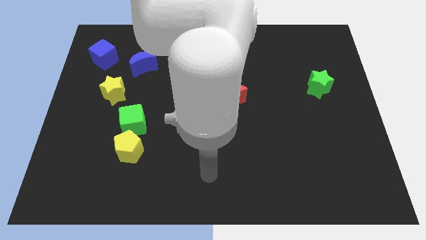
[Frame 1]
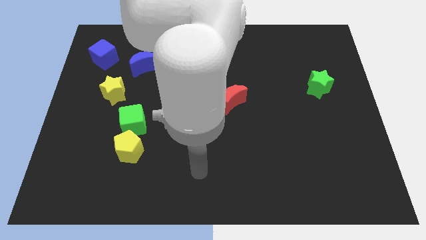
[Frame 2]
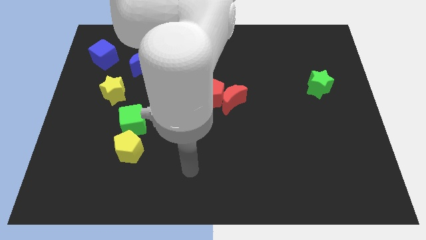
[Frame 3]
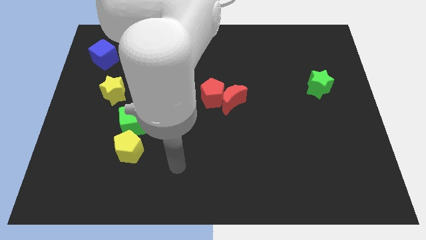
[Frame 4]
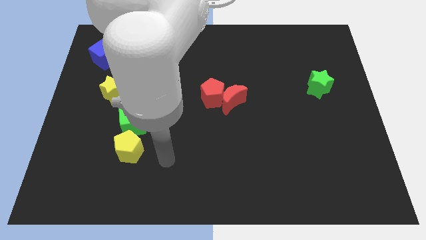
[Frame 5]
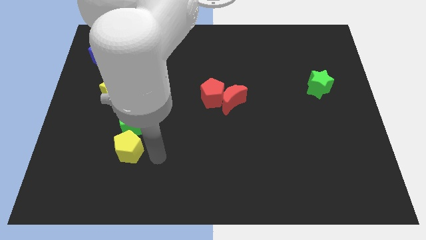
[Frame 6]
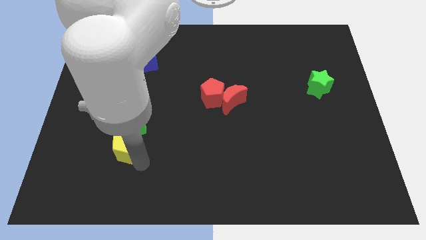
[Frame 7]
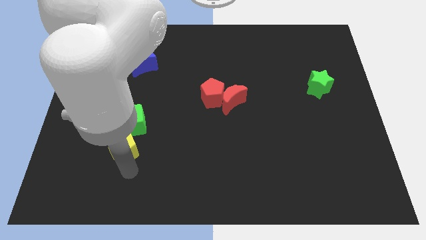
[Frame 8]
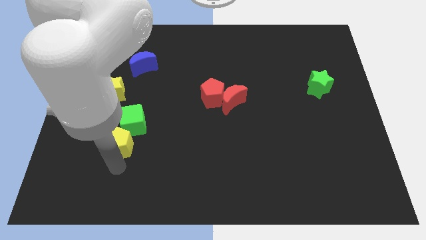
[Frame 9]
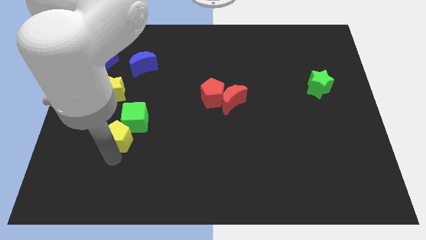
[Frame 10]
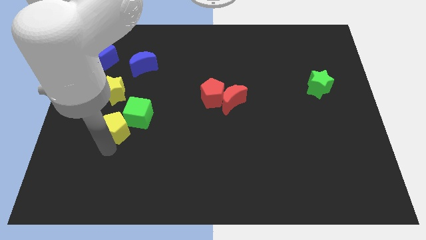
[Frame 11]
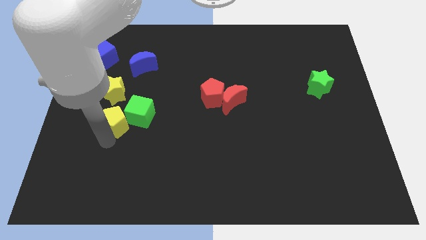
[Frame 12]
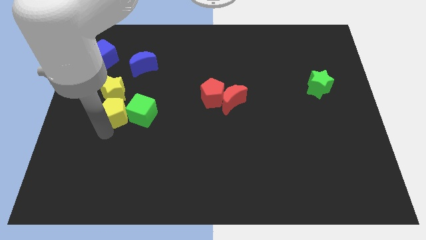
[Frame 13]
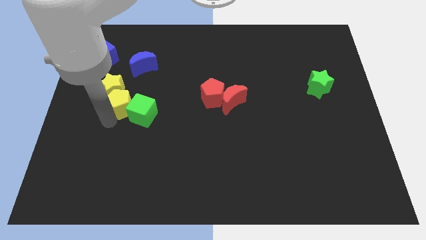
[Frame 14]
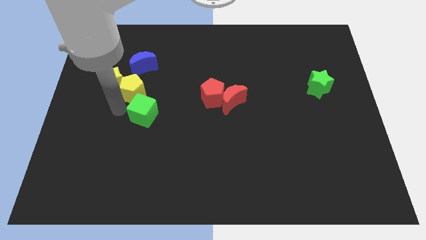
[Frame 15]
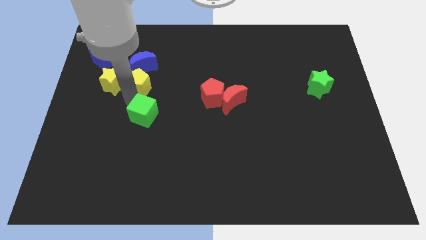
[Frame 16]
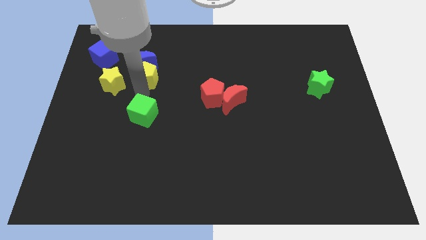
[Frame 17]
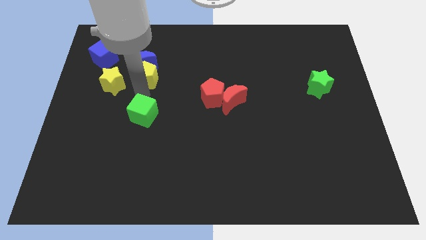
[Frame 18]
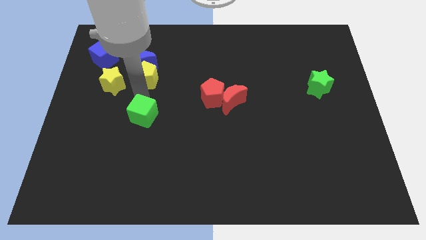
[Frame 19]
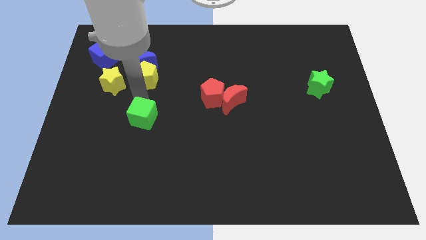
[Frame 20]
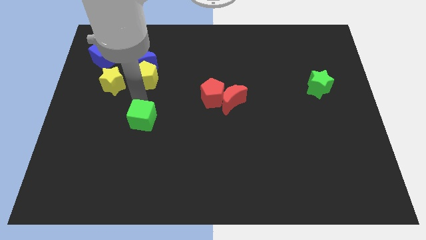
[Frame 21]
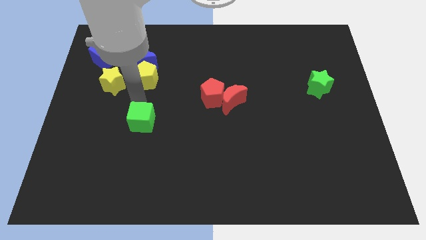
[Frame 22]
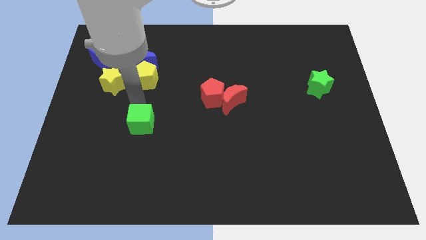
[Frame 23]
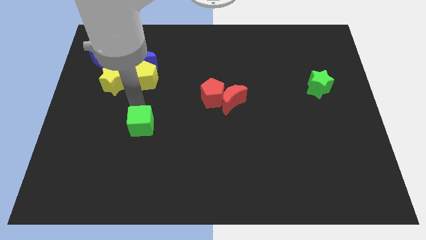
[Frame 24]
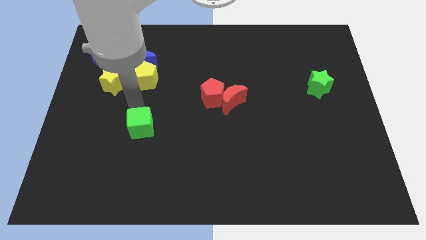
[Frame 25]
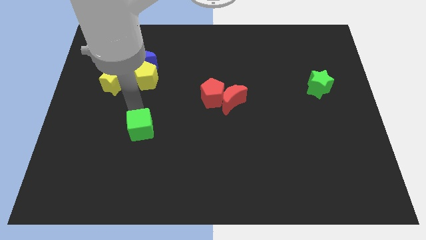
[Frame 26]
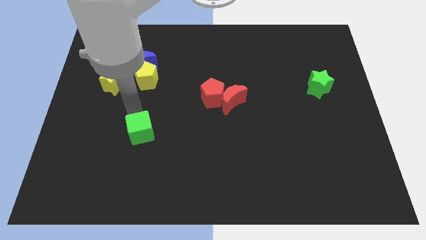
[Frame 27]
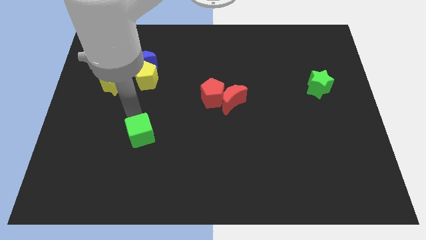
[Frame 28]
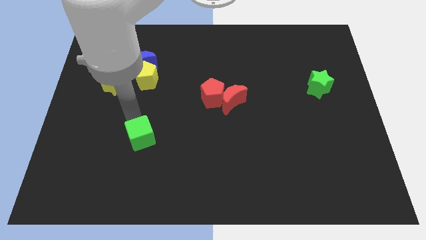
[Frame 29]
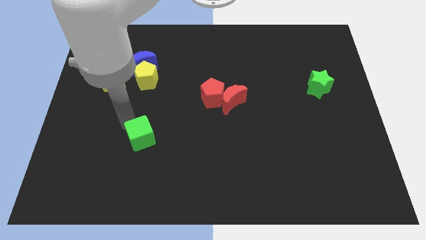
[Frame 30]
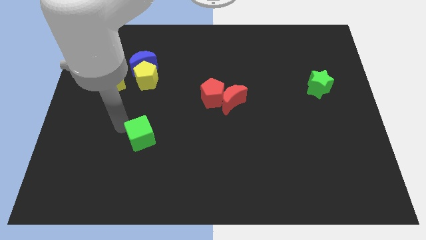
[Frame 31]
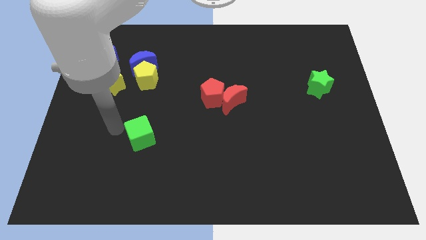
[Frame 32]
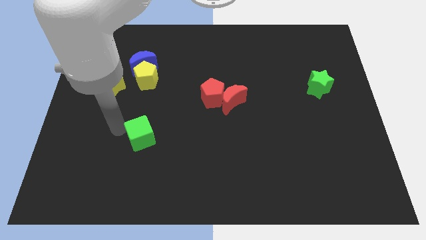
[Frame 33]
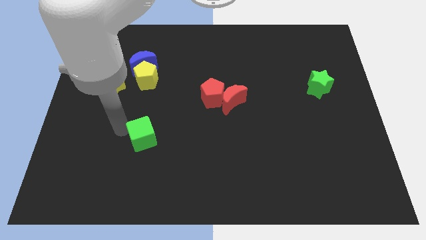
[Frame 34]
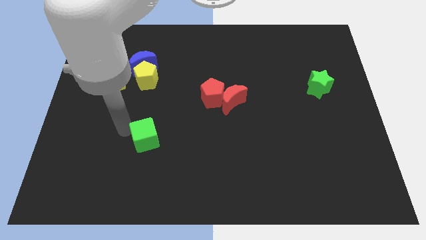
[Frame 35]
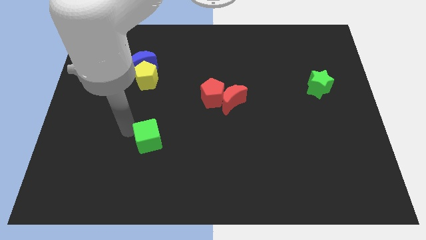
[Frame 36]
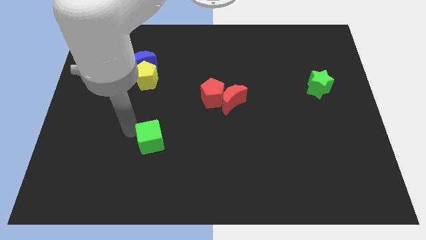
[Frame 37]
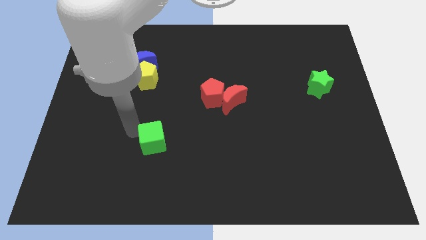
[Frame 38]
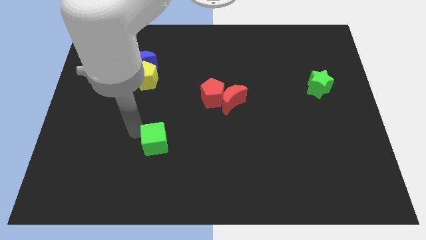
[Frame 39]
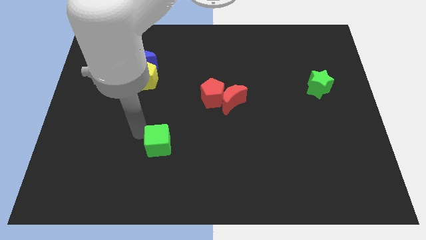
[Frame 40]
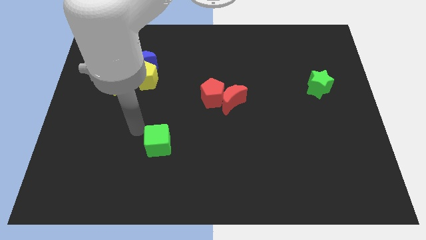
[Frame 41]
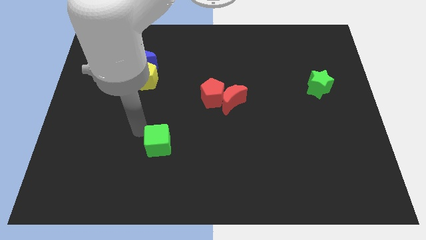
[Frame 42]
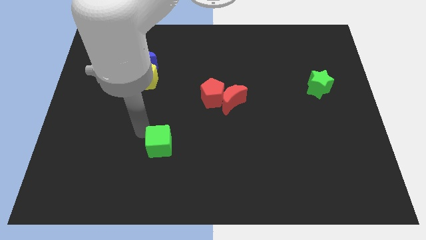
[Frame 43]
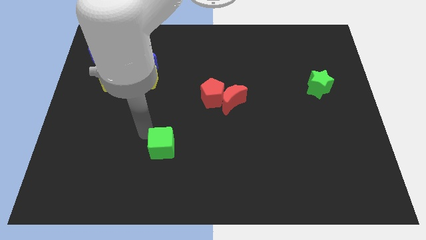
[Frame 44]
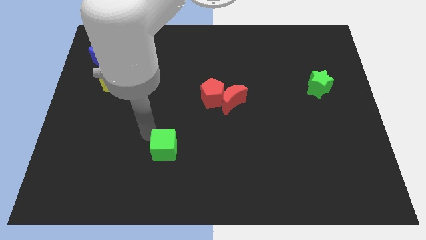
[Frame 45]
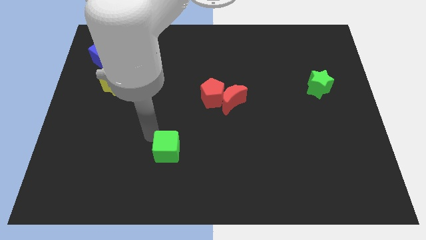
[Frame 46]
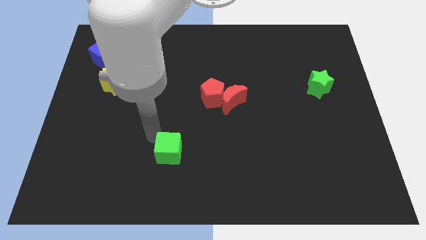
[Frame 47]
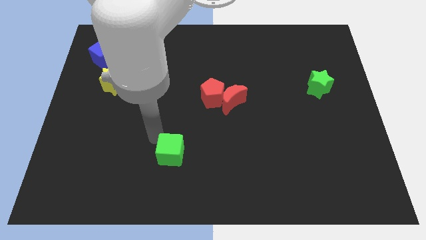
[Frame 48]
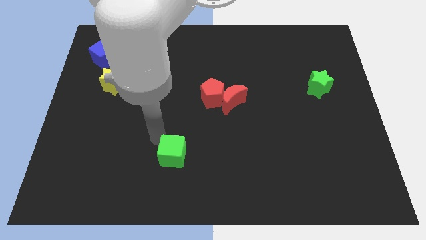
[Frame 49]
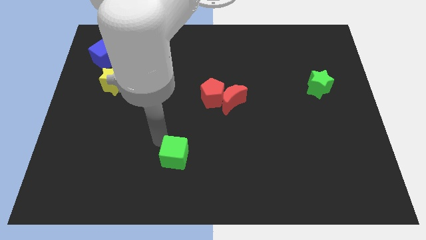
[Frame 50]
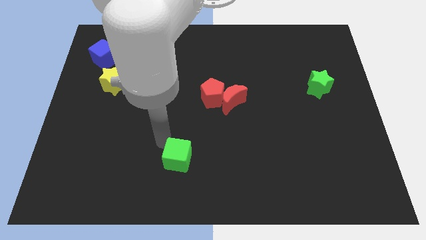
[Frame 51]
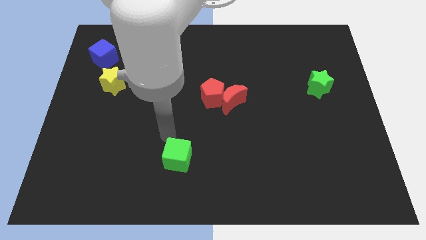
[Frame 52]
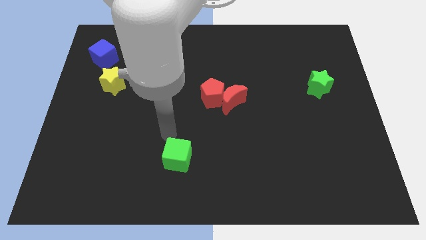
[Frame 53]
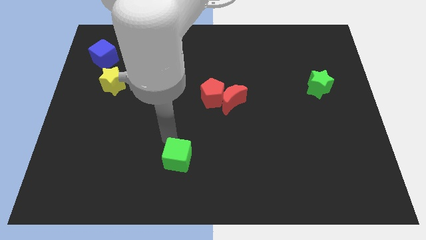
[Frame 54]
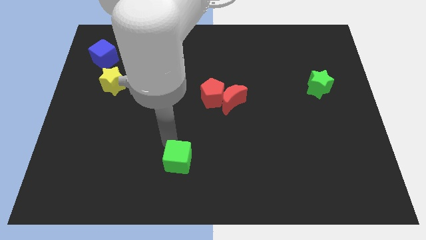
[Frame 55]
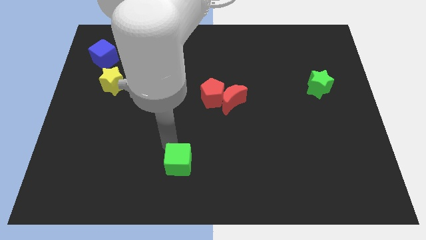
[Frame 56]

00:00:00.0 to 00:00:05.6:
push the green cube to the bottom side

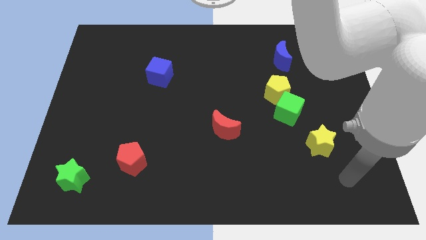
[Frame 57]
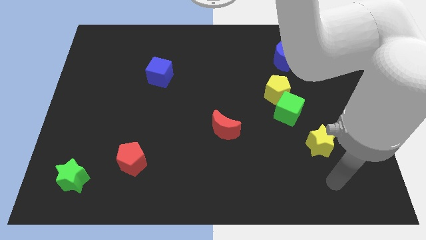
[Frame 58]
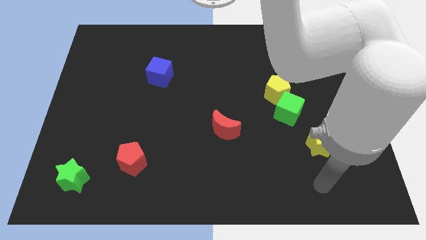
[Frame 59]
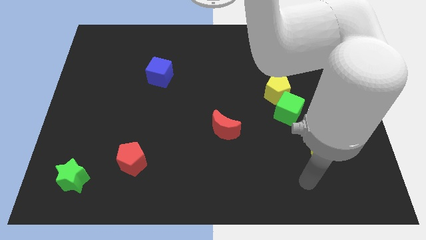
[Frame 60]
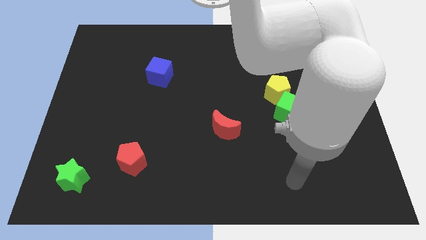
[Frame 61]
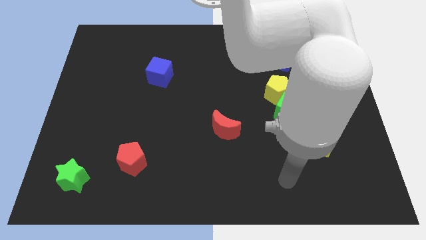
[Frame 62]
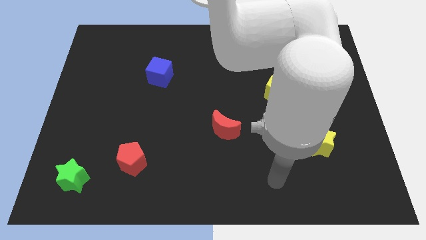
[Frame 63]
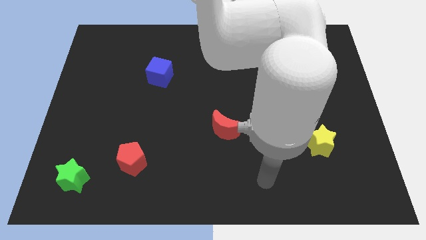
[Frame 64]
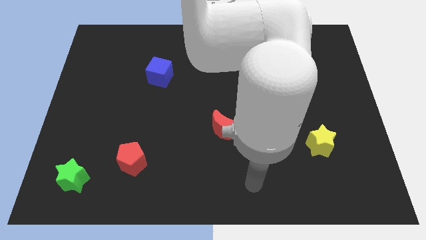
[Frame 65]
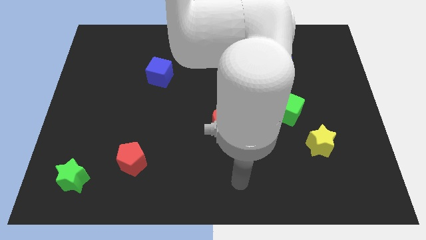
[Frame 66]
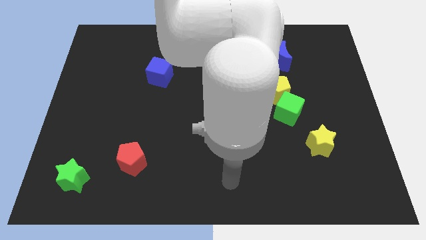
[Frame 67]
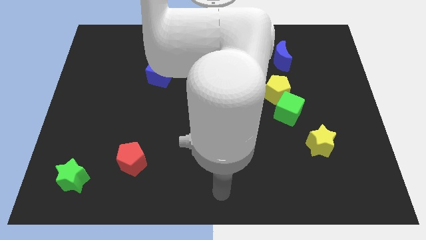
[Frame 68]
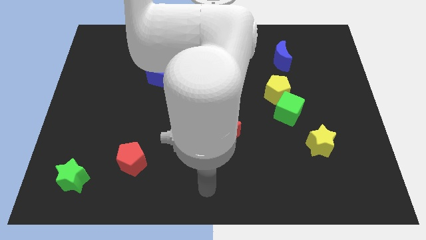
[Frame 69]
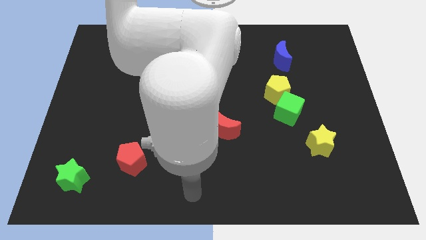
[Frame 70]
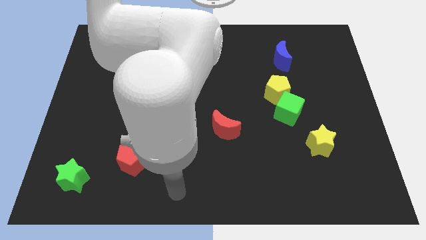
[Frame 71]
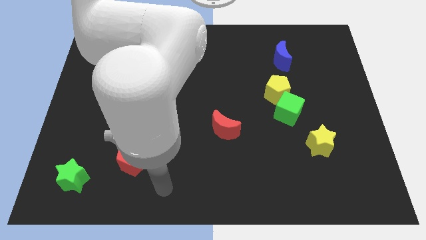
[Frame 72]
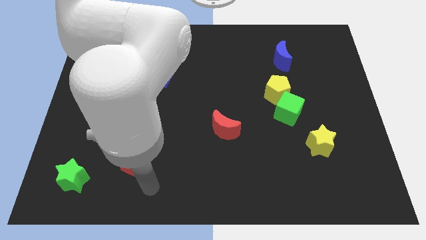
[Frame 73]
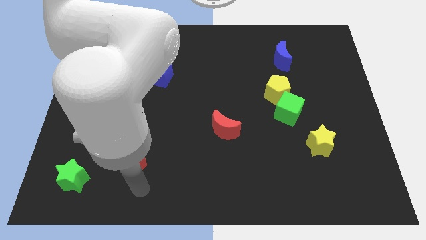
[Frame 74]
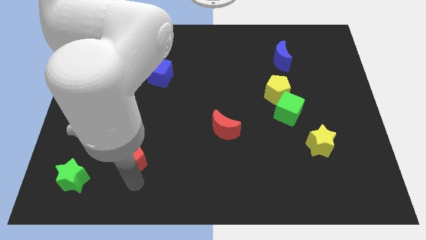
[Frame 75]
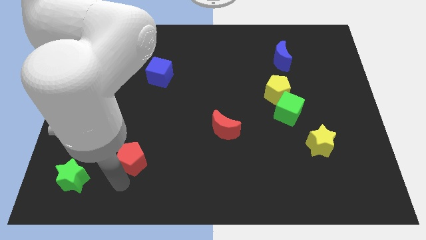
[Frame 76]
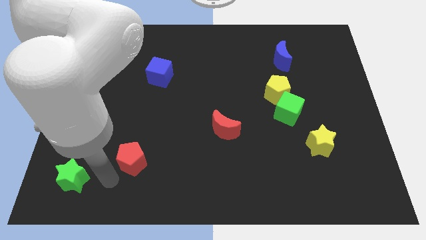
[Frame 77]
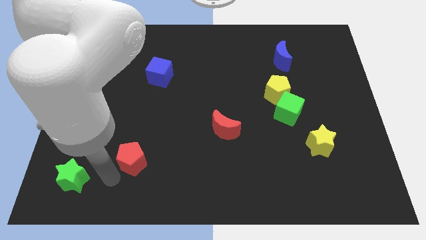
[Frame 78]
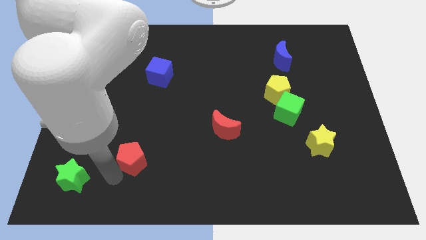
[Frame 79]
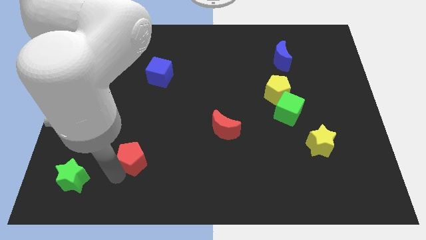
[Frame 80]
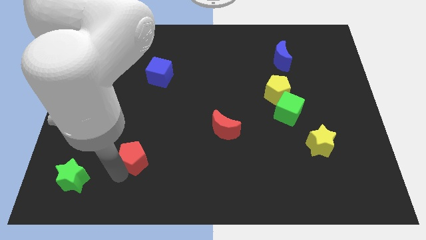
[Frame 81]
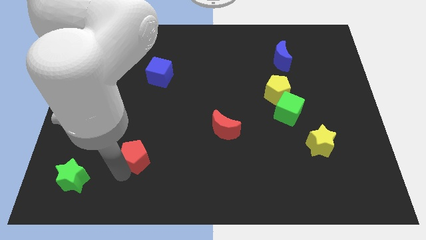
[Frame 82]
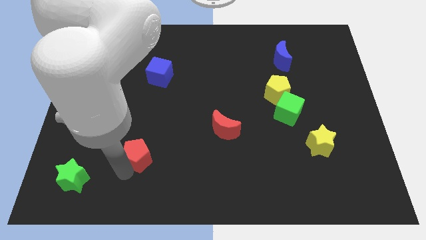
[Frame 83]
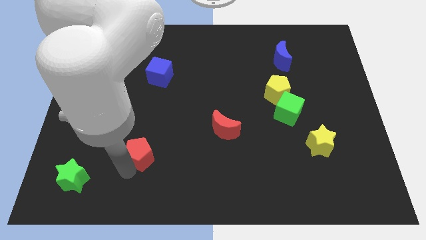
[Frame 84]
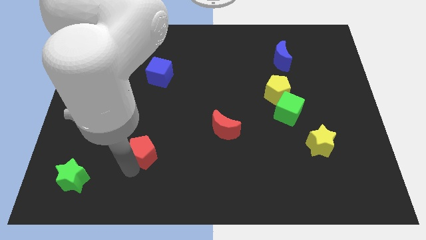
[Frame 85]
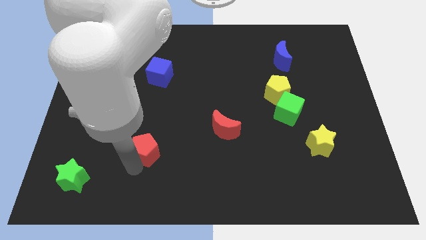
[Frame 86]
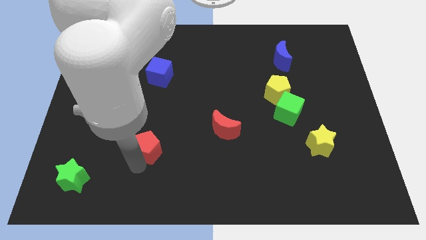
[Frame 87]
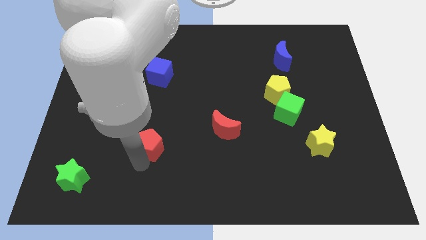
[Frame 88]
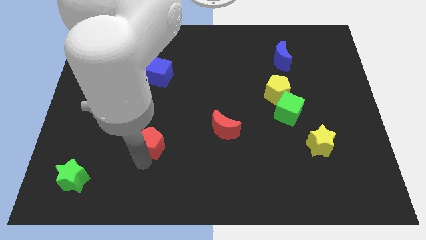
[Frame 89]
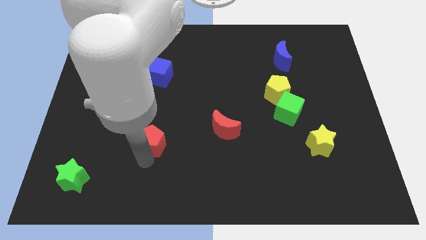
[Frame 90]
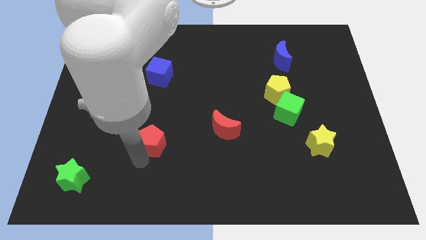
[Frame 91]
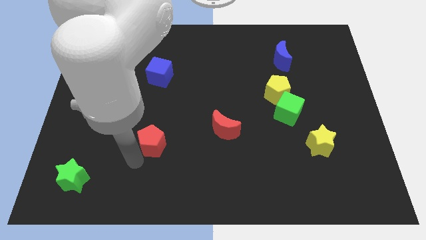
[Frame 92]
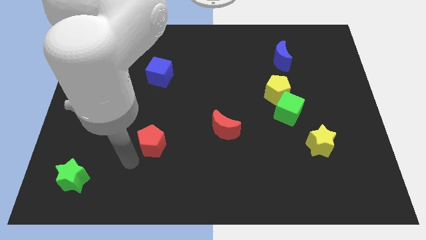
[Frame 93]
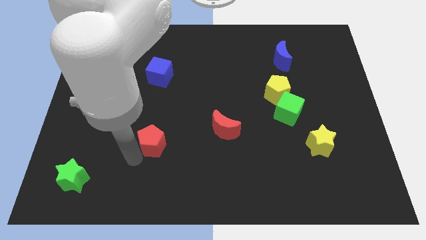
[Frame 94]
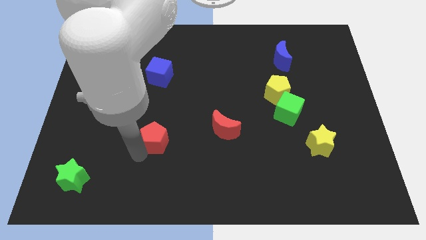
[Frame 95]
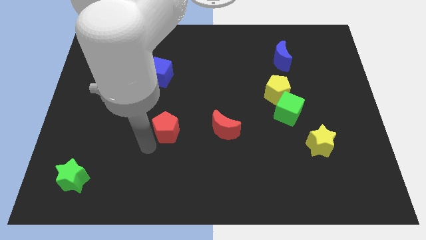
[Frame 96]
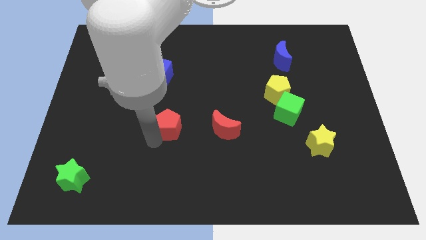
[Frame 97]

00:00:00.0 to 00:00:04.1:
push the red pentagon to the center
